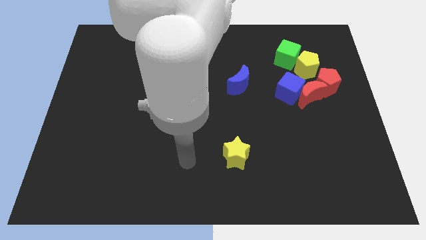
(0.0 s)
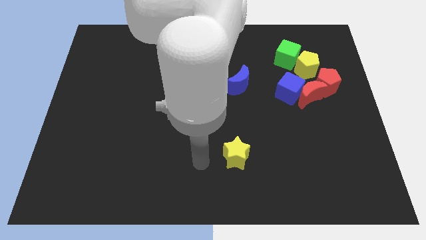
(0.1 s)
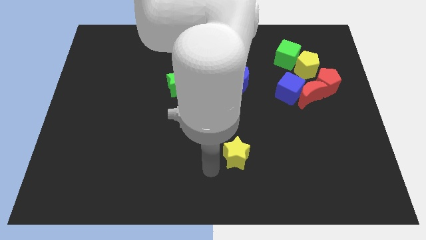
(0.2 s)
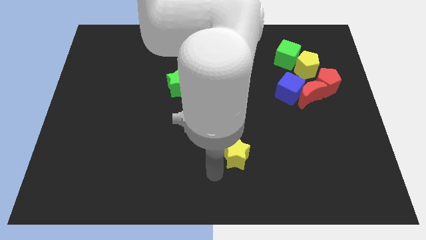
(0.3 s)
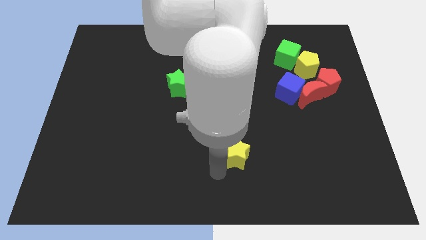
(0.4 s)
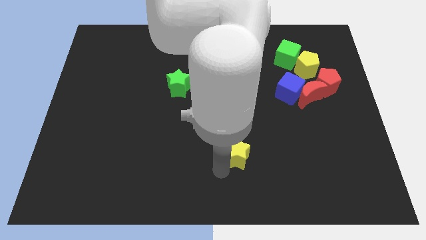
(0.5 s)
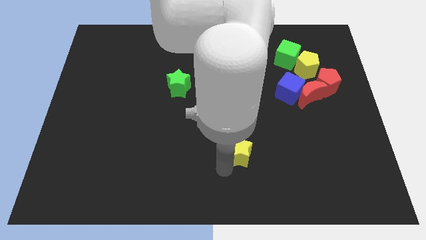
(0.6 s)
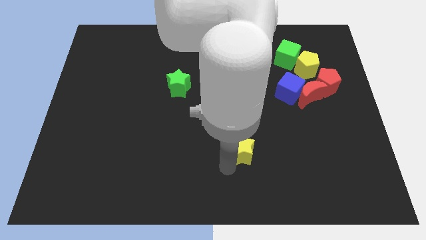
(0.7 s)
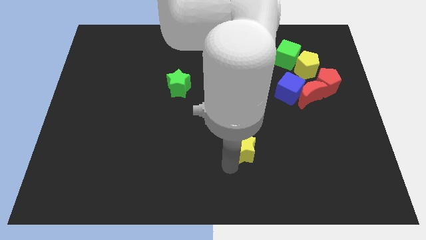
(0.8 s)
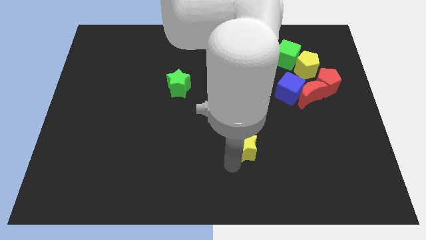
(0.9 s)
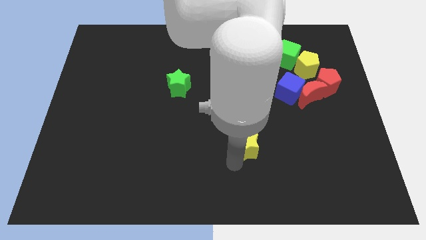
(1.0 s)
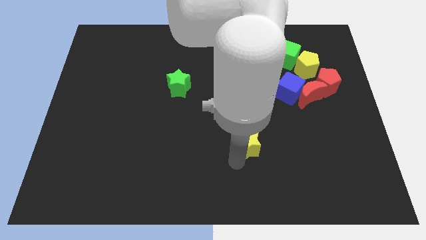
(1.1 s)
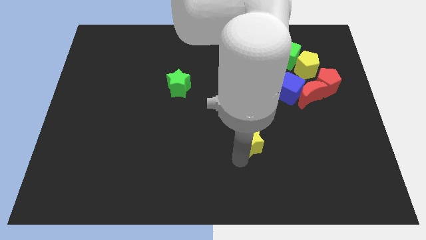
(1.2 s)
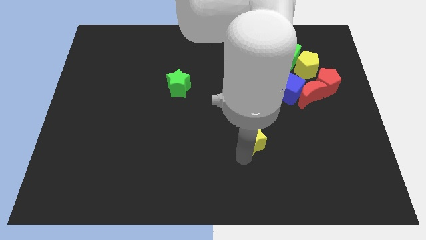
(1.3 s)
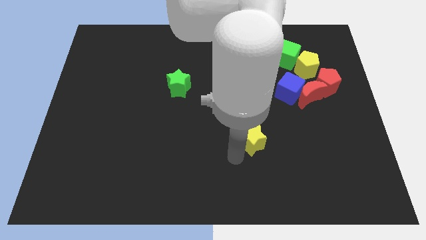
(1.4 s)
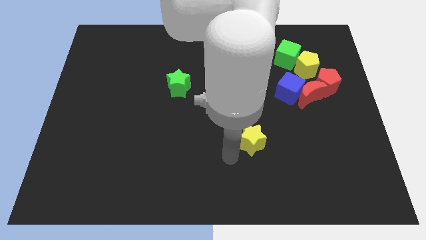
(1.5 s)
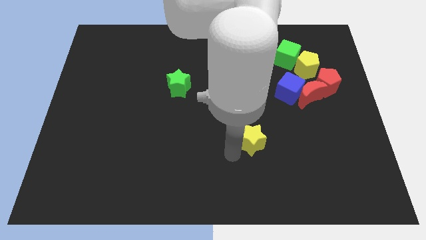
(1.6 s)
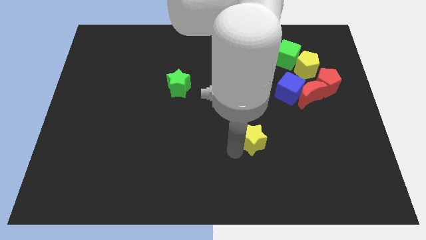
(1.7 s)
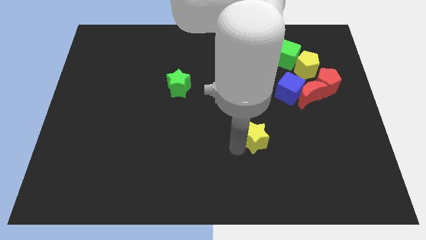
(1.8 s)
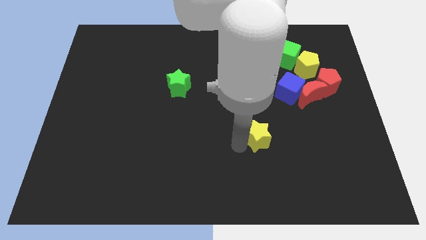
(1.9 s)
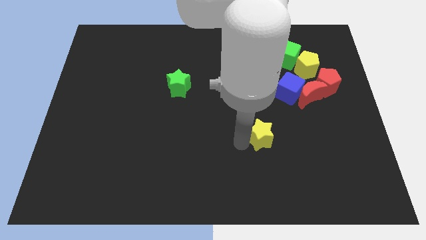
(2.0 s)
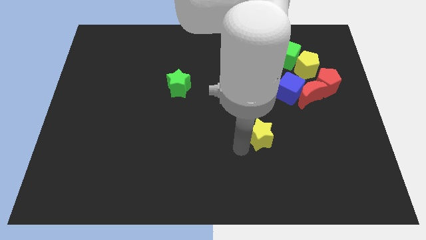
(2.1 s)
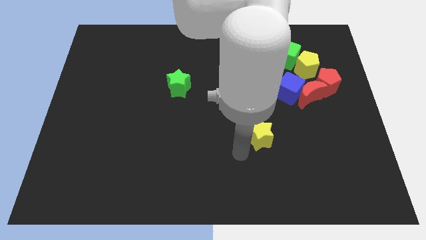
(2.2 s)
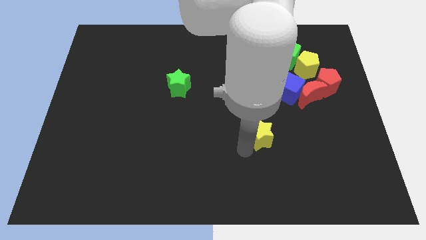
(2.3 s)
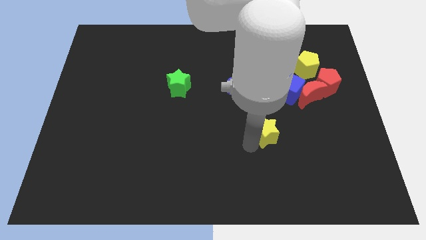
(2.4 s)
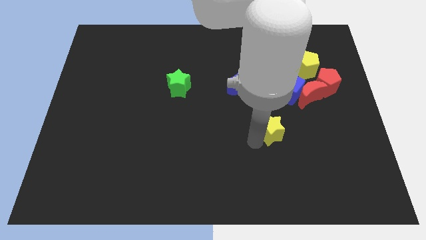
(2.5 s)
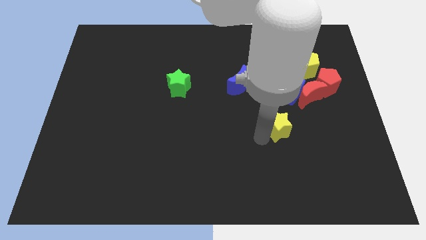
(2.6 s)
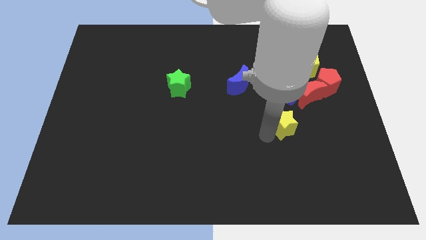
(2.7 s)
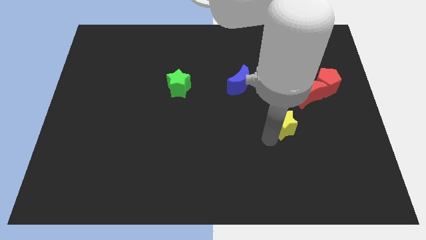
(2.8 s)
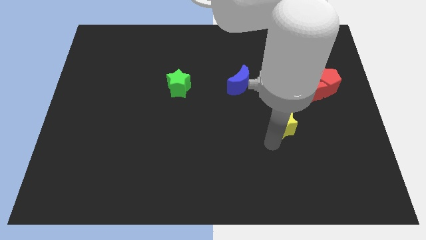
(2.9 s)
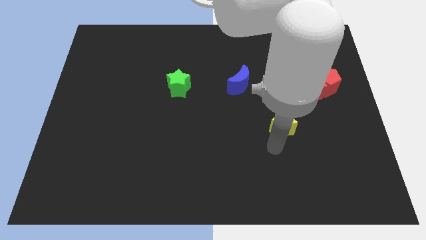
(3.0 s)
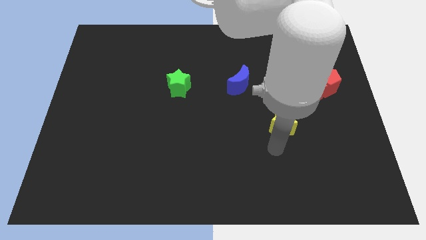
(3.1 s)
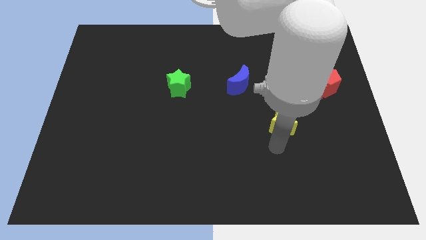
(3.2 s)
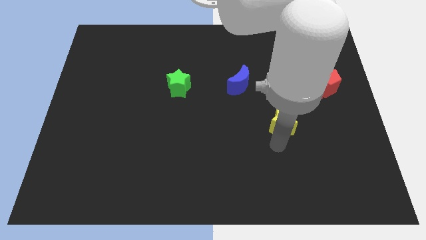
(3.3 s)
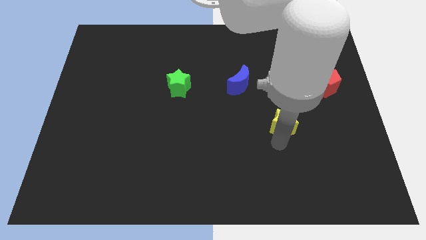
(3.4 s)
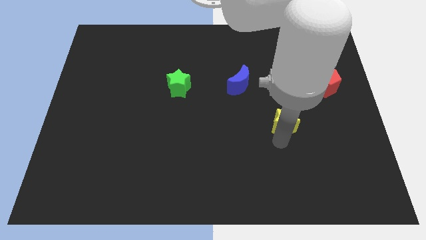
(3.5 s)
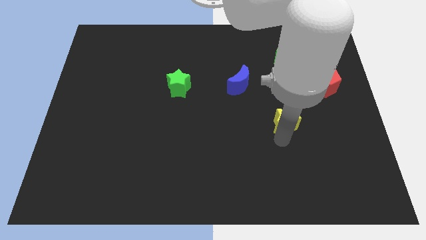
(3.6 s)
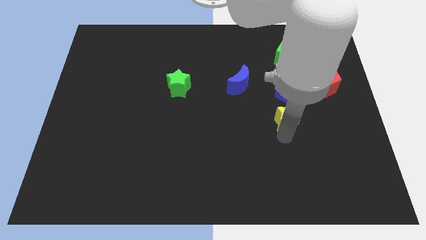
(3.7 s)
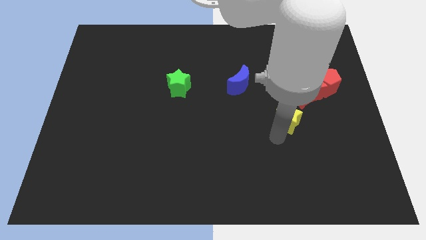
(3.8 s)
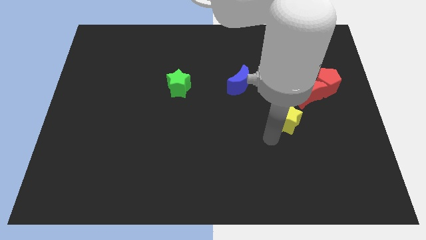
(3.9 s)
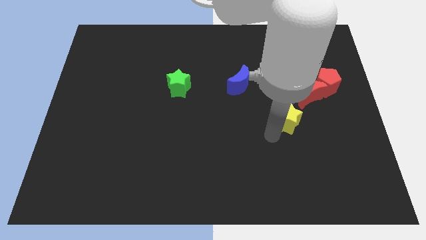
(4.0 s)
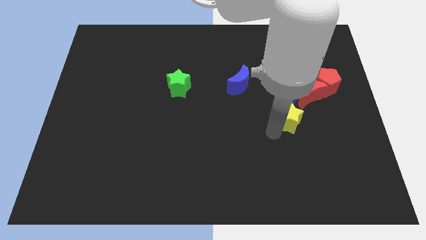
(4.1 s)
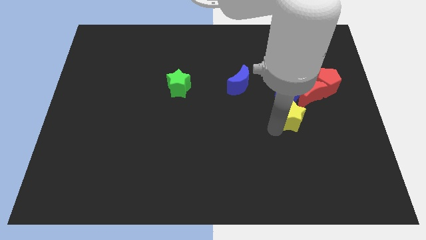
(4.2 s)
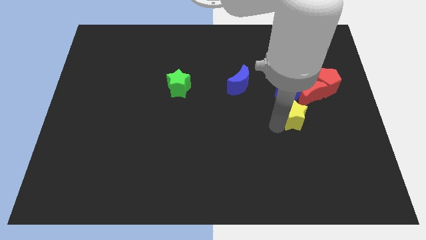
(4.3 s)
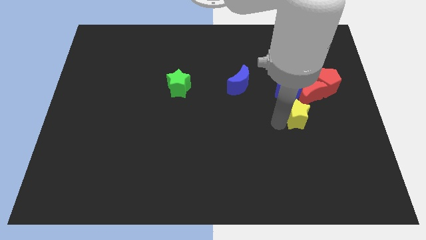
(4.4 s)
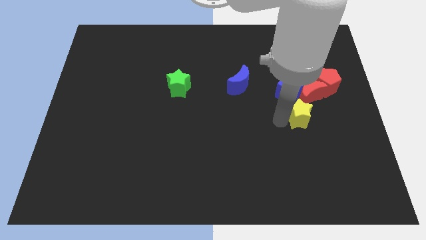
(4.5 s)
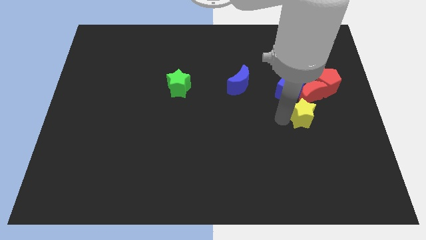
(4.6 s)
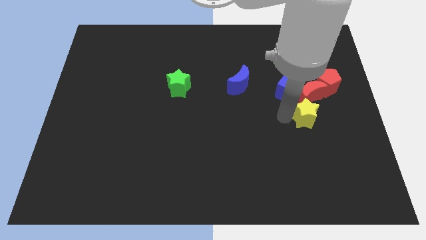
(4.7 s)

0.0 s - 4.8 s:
push the yellow star close to the red moon

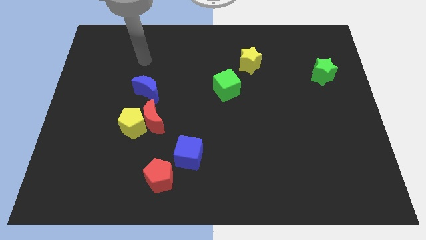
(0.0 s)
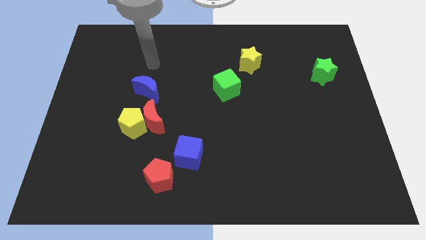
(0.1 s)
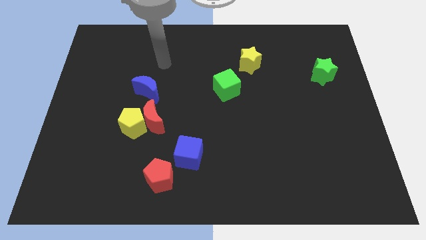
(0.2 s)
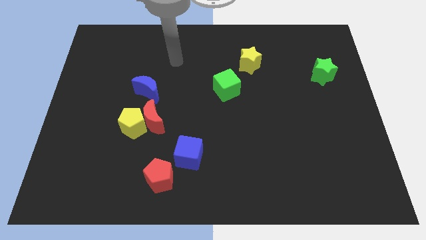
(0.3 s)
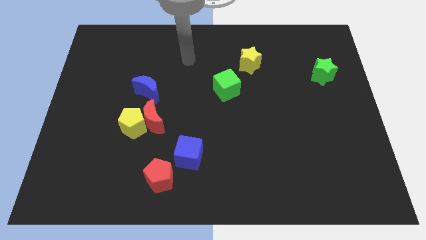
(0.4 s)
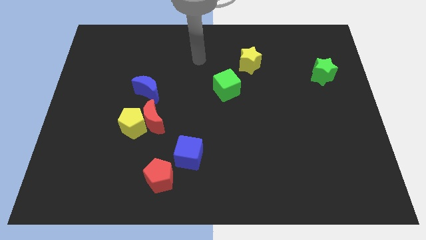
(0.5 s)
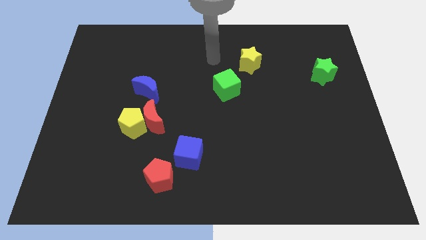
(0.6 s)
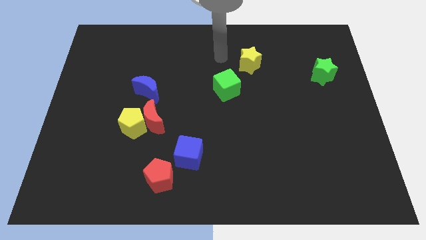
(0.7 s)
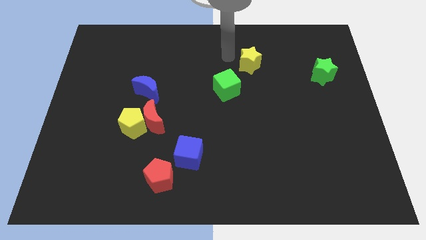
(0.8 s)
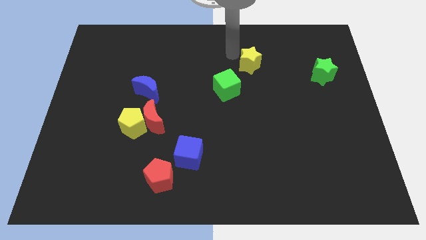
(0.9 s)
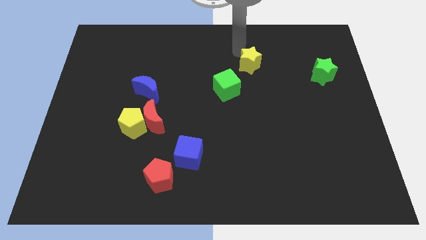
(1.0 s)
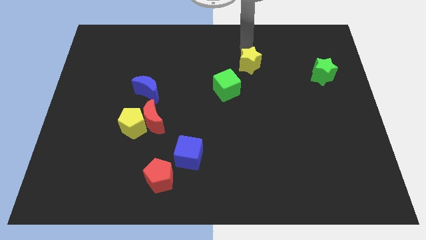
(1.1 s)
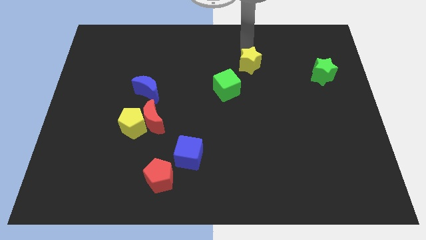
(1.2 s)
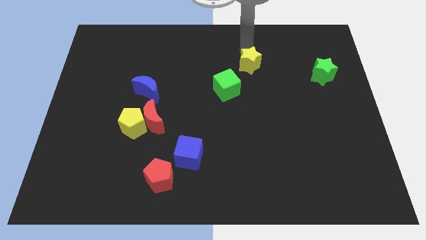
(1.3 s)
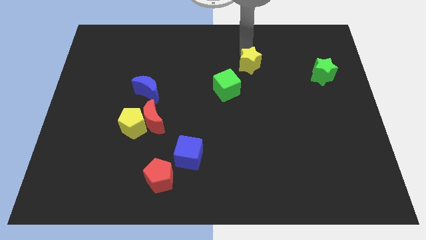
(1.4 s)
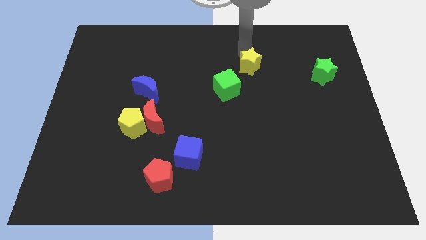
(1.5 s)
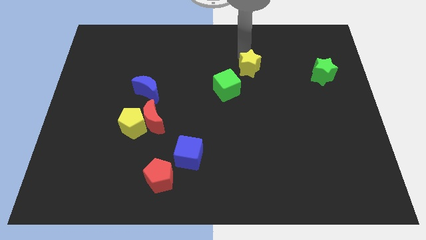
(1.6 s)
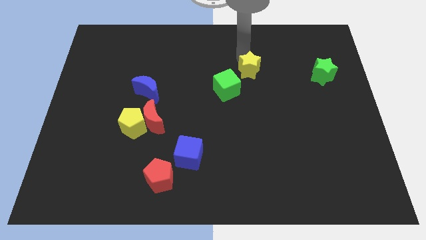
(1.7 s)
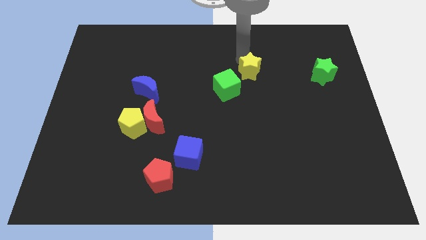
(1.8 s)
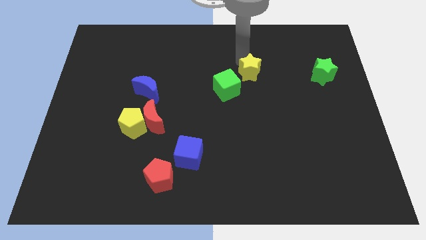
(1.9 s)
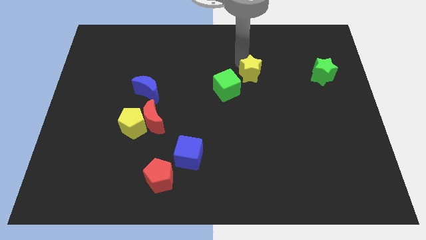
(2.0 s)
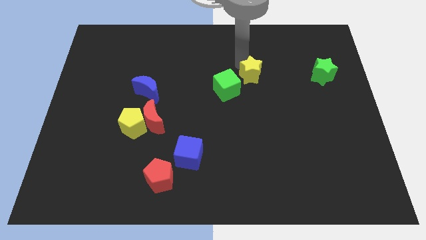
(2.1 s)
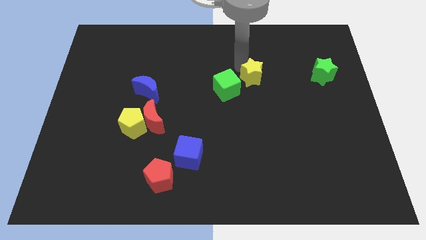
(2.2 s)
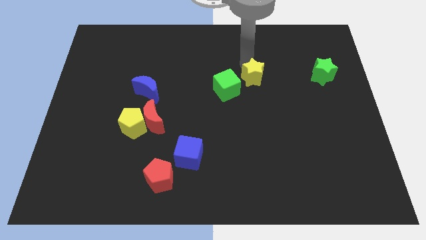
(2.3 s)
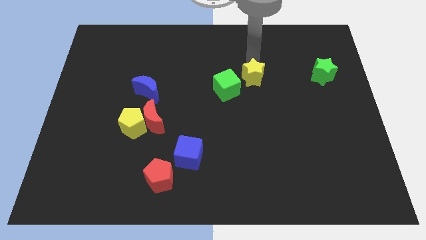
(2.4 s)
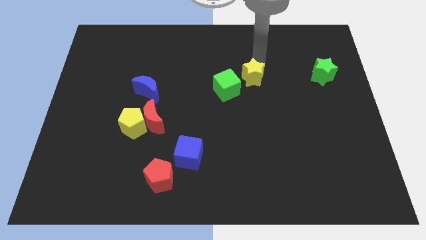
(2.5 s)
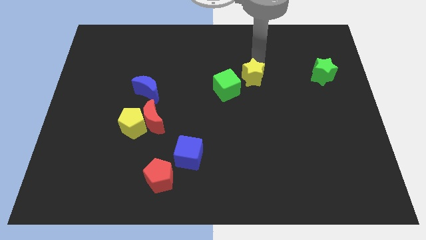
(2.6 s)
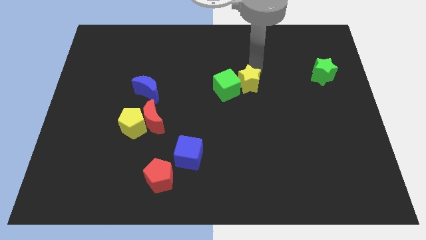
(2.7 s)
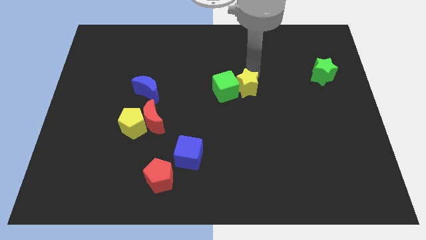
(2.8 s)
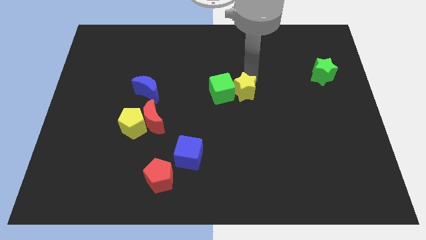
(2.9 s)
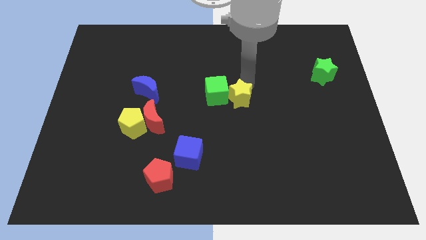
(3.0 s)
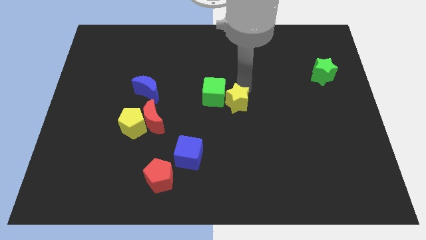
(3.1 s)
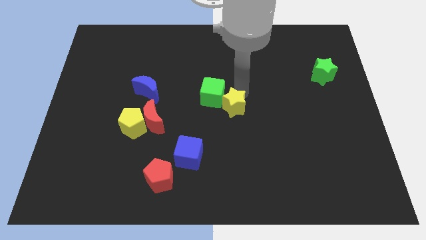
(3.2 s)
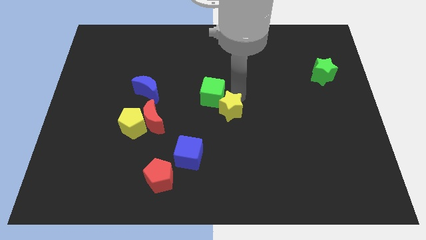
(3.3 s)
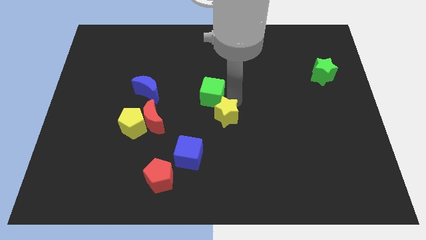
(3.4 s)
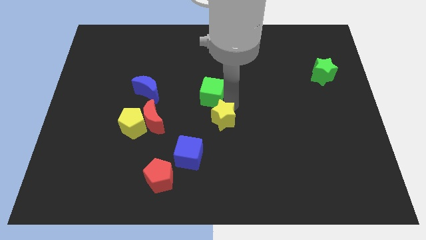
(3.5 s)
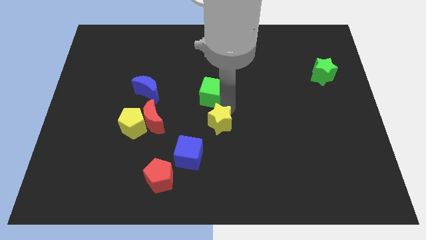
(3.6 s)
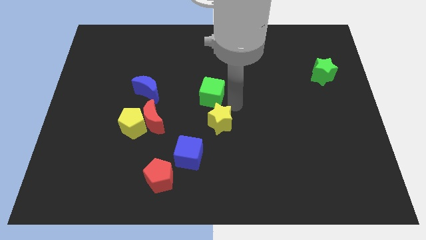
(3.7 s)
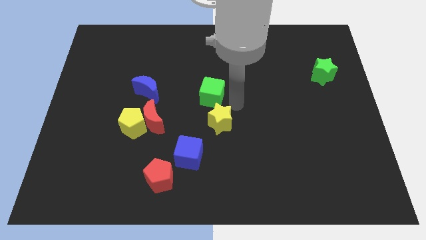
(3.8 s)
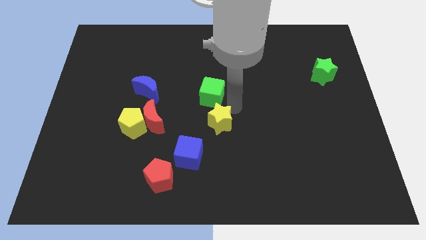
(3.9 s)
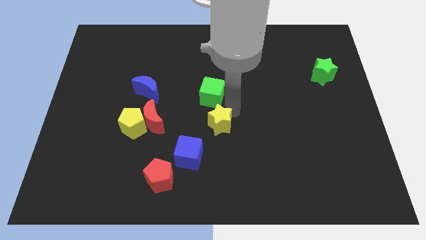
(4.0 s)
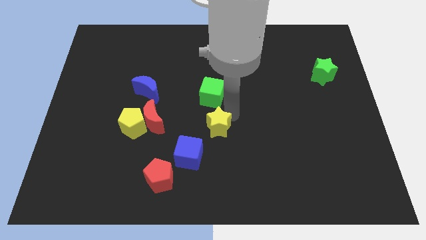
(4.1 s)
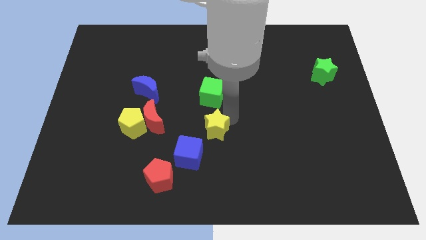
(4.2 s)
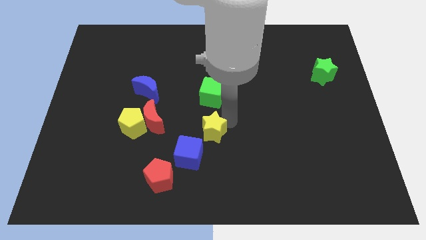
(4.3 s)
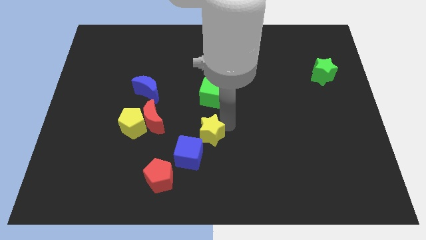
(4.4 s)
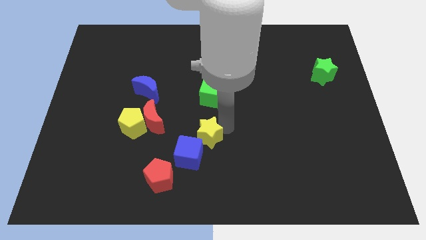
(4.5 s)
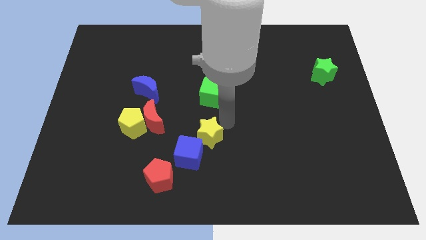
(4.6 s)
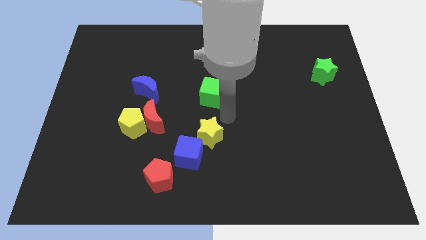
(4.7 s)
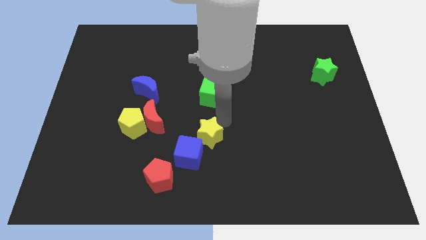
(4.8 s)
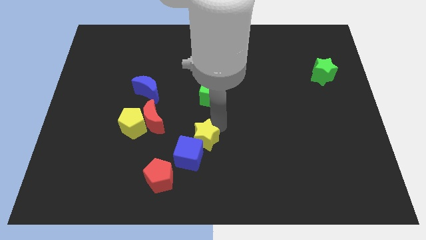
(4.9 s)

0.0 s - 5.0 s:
push the yellow star to the blue cube
